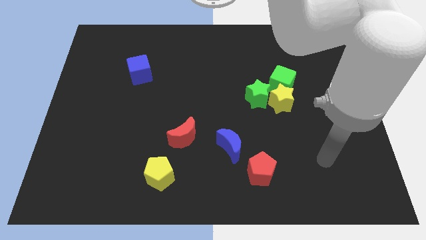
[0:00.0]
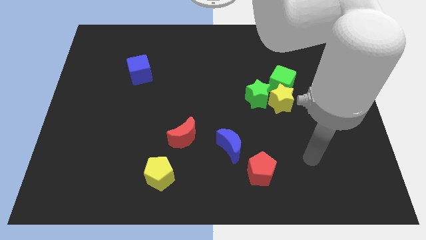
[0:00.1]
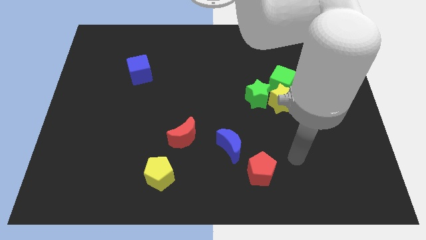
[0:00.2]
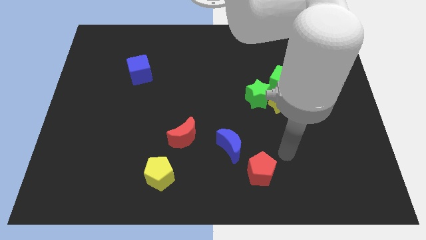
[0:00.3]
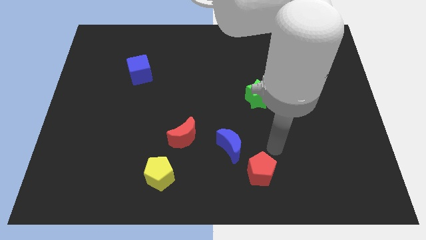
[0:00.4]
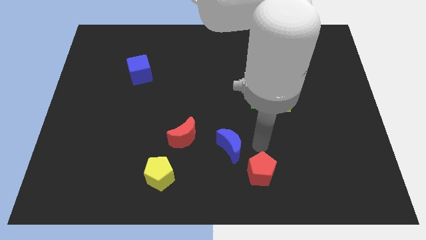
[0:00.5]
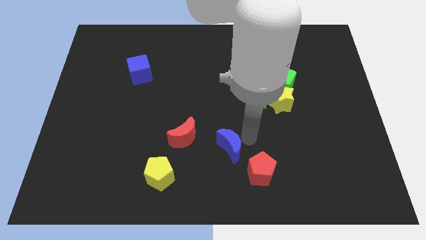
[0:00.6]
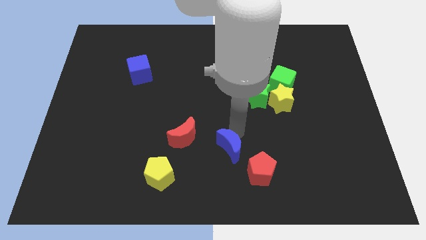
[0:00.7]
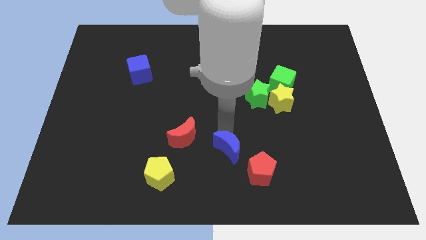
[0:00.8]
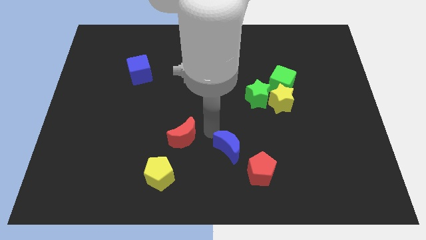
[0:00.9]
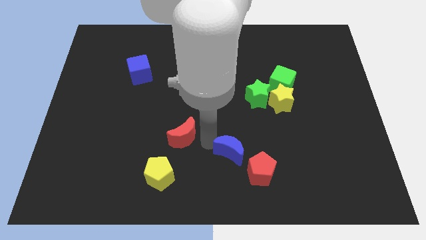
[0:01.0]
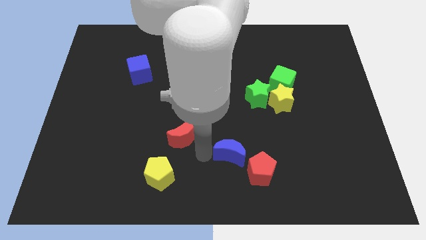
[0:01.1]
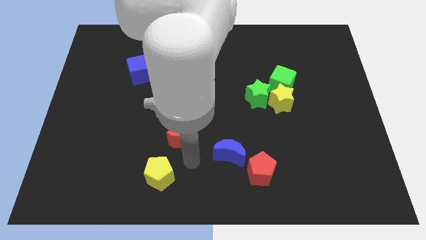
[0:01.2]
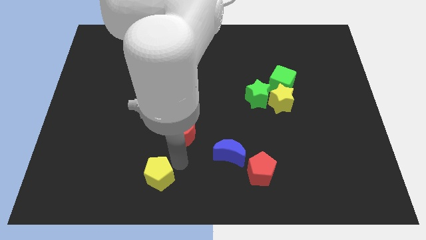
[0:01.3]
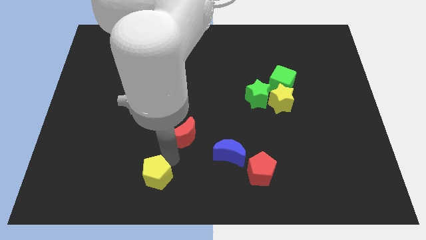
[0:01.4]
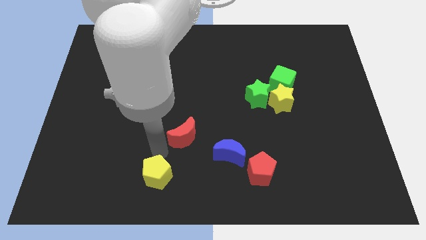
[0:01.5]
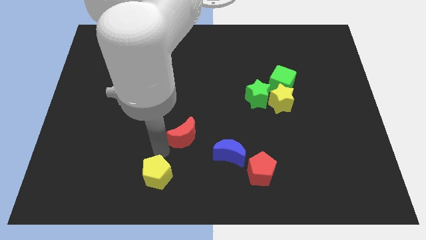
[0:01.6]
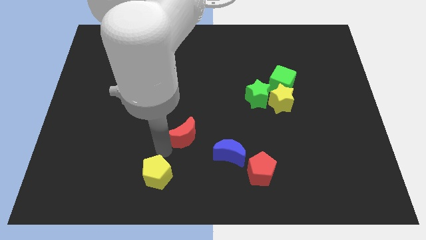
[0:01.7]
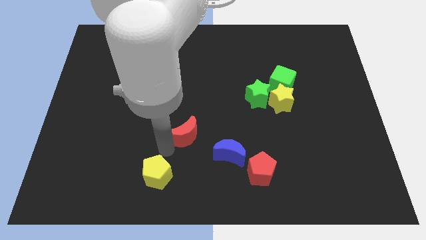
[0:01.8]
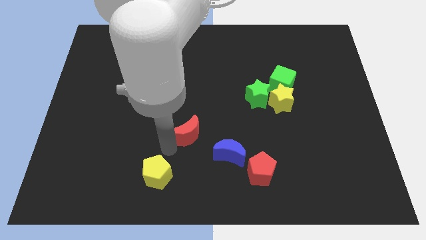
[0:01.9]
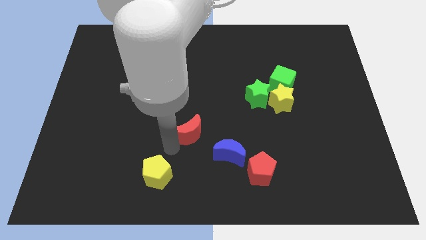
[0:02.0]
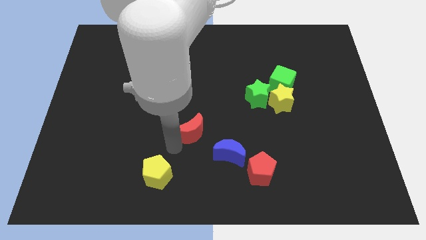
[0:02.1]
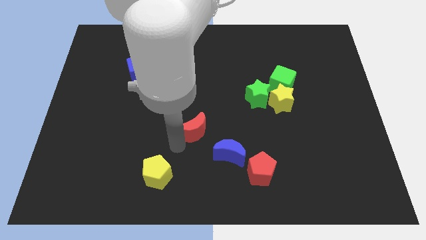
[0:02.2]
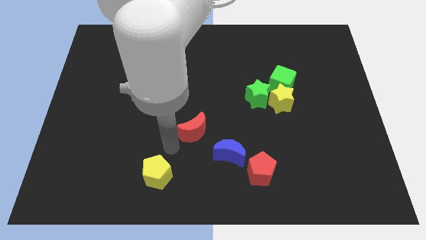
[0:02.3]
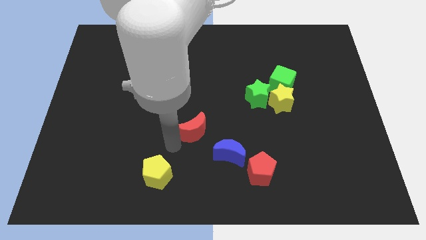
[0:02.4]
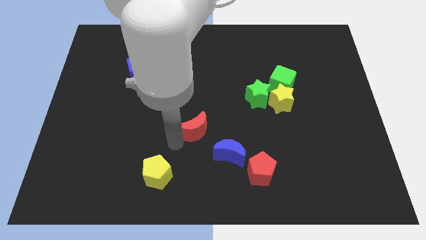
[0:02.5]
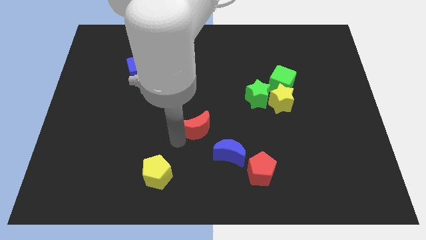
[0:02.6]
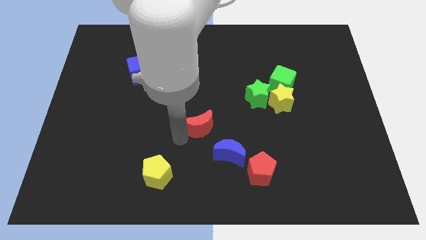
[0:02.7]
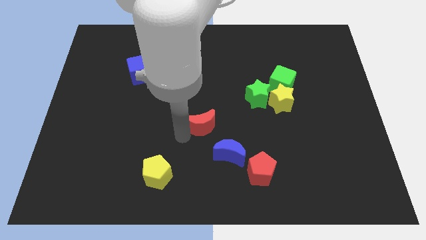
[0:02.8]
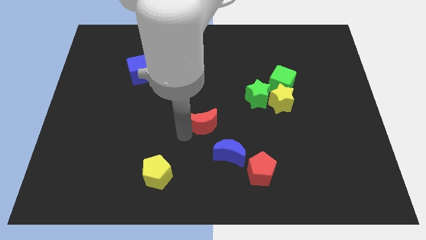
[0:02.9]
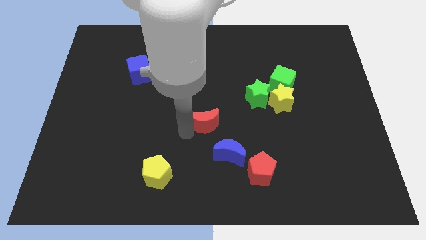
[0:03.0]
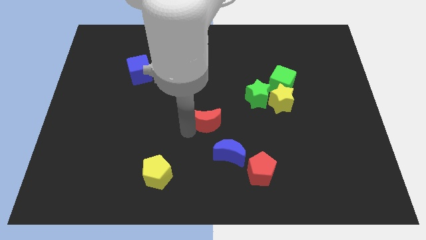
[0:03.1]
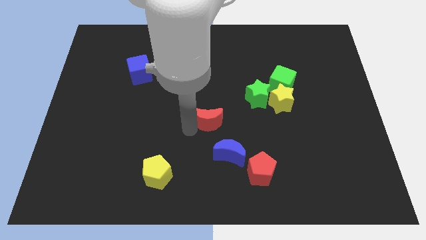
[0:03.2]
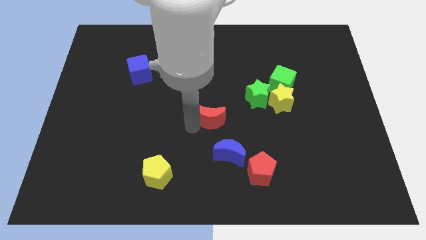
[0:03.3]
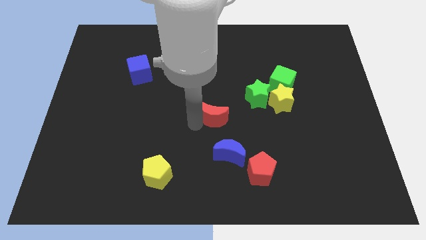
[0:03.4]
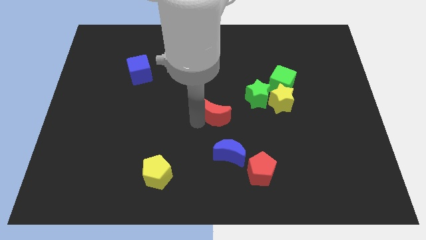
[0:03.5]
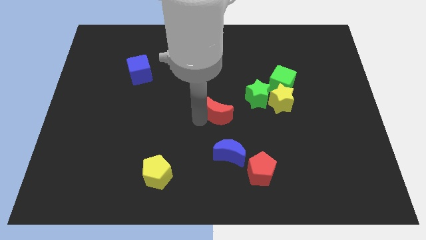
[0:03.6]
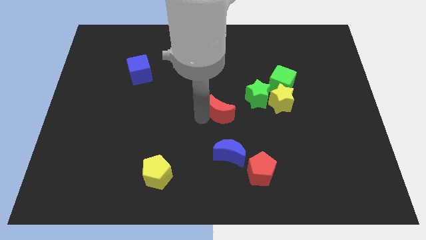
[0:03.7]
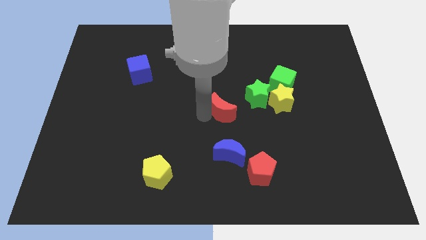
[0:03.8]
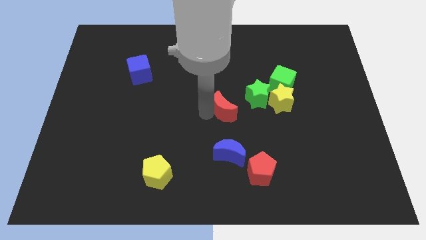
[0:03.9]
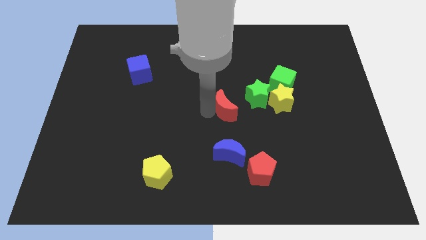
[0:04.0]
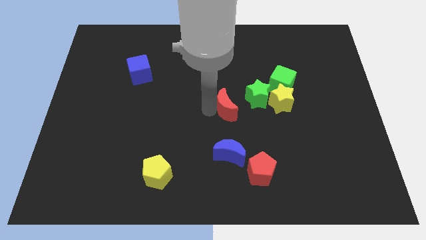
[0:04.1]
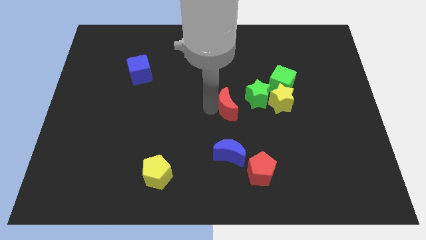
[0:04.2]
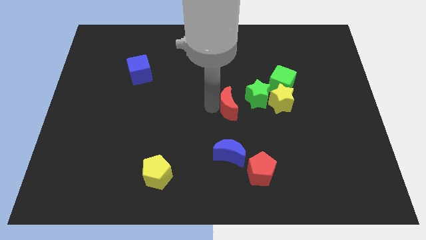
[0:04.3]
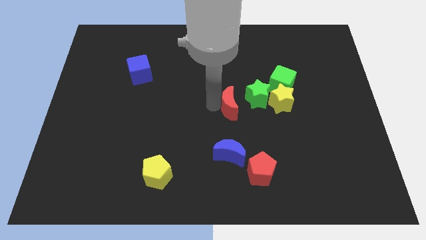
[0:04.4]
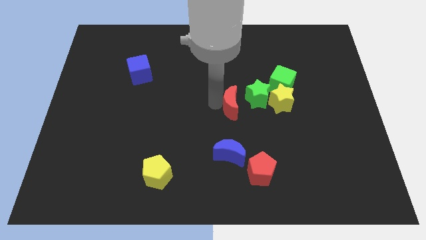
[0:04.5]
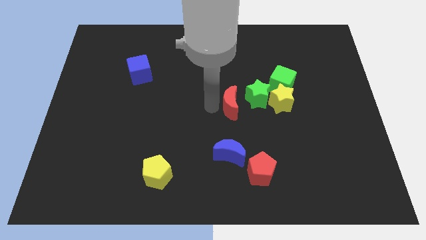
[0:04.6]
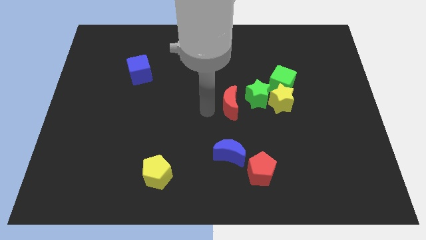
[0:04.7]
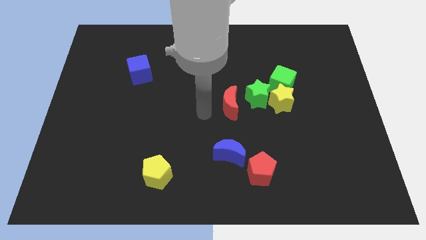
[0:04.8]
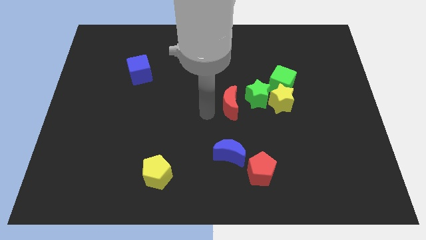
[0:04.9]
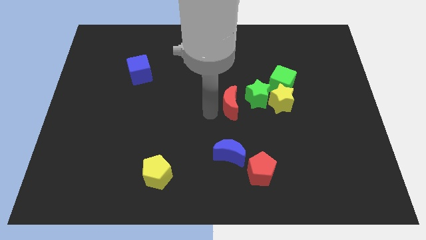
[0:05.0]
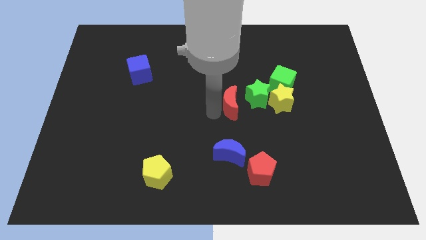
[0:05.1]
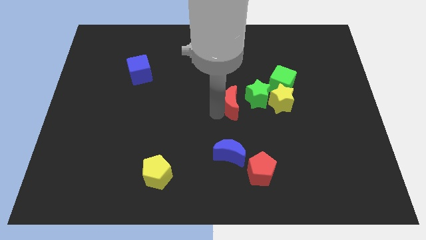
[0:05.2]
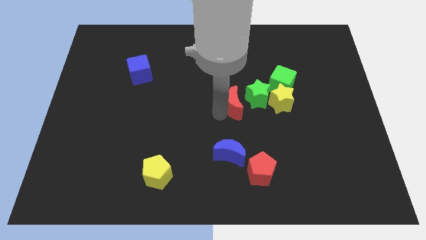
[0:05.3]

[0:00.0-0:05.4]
slide the red moon close to the green star

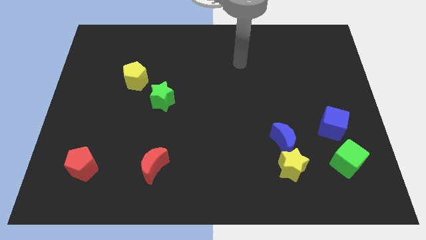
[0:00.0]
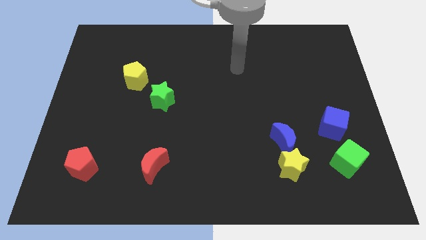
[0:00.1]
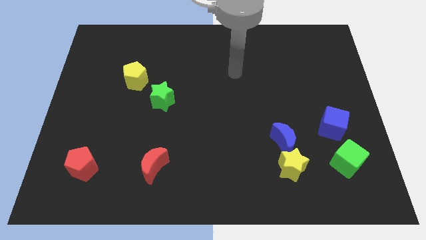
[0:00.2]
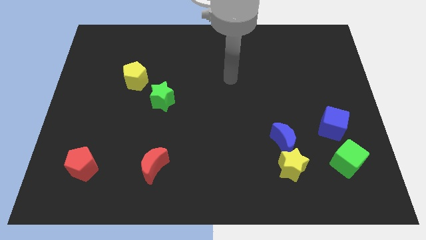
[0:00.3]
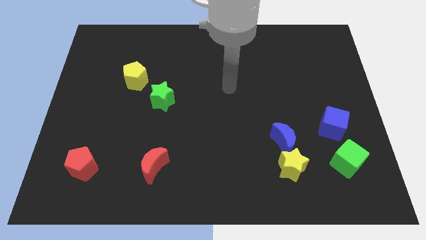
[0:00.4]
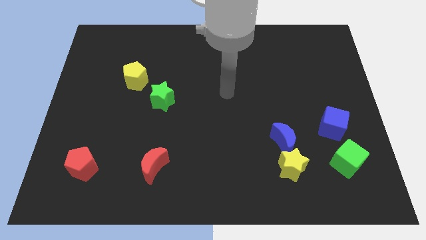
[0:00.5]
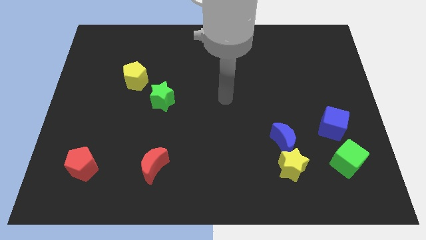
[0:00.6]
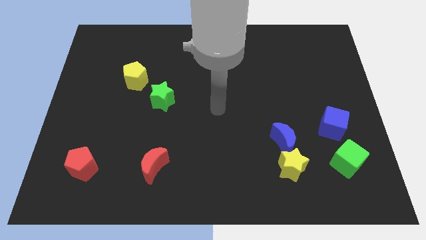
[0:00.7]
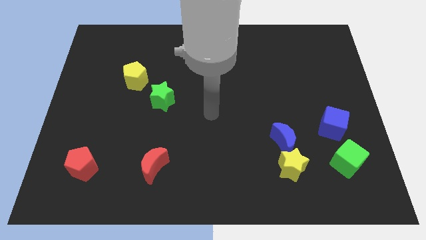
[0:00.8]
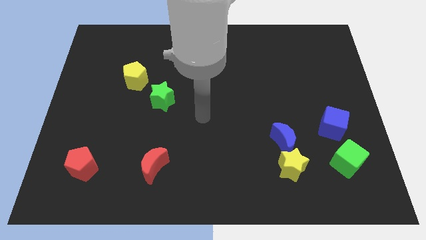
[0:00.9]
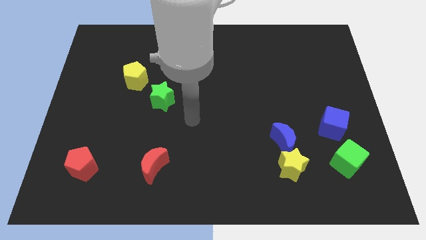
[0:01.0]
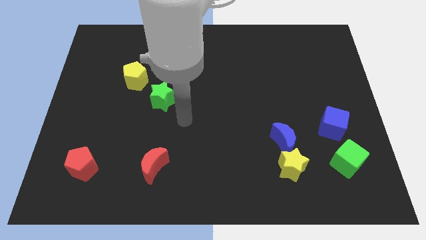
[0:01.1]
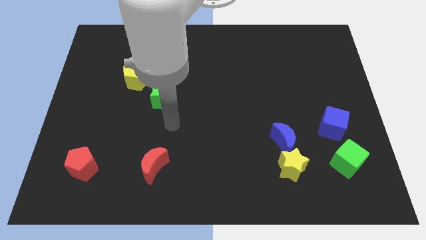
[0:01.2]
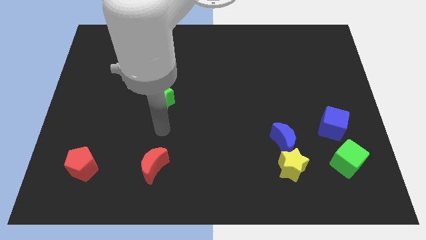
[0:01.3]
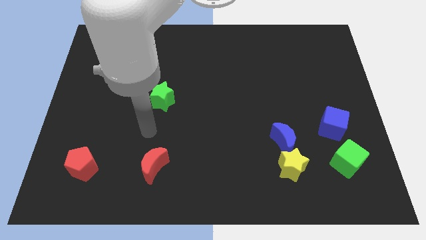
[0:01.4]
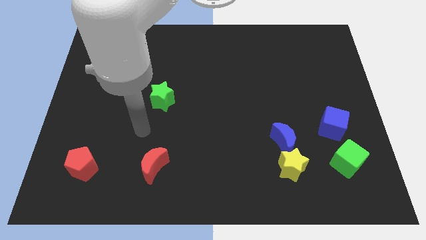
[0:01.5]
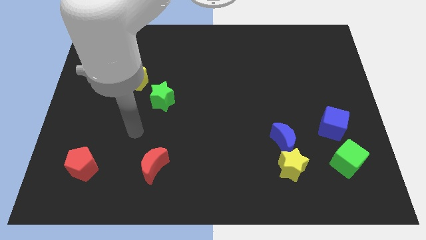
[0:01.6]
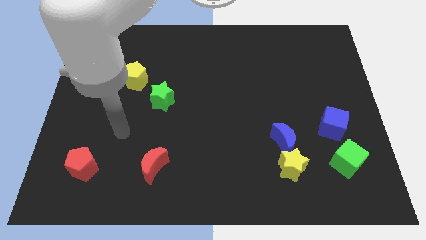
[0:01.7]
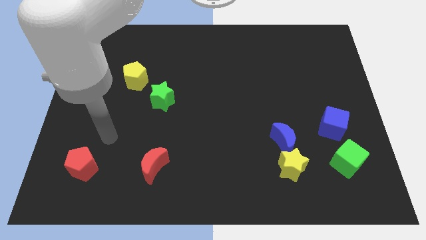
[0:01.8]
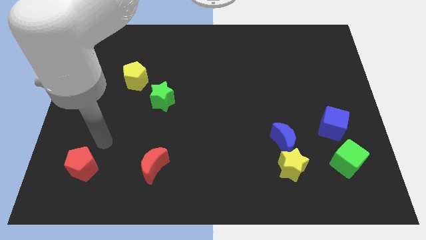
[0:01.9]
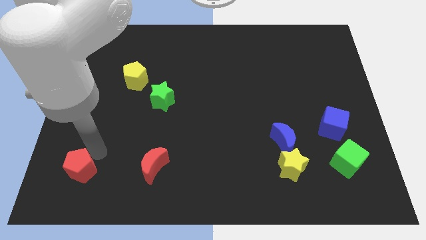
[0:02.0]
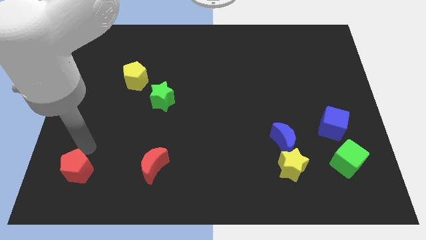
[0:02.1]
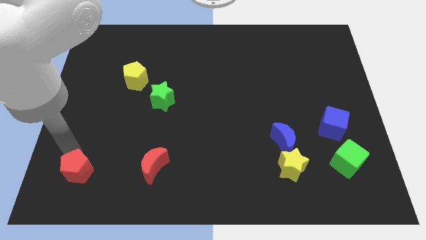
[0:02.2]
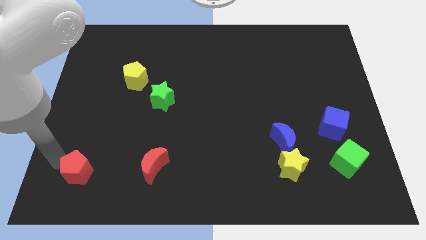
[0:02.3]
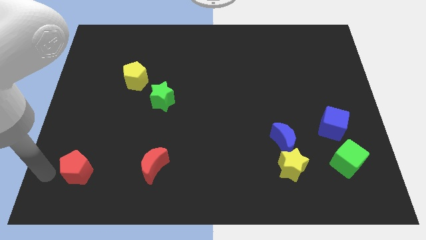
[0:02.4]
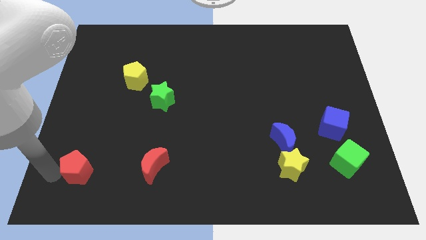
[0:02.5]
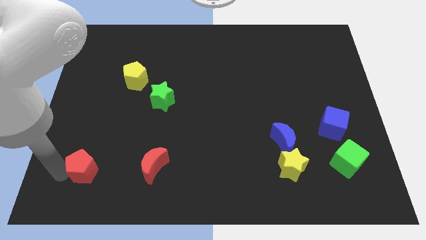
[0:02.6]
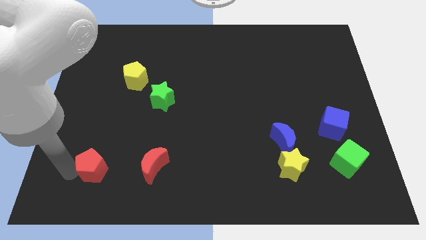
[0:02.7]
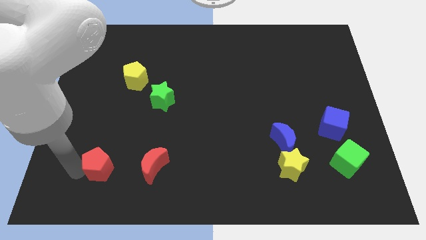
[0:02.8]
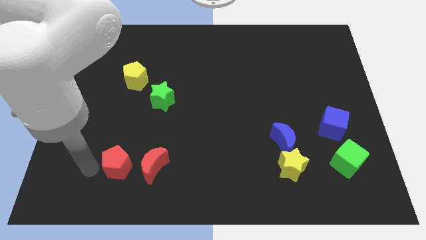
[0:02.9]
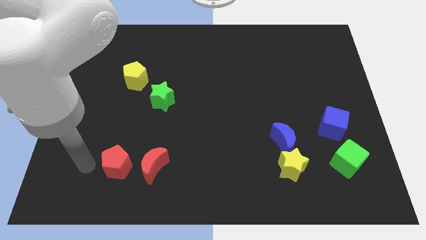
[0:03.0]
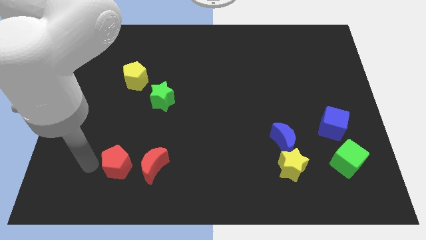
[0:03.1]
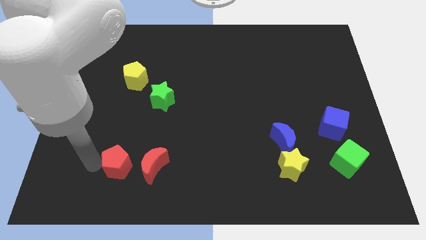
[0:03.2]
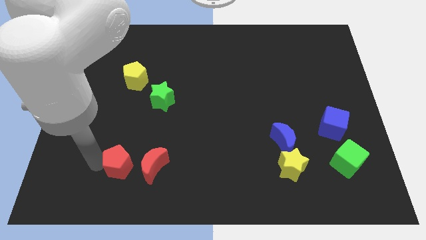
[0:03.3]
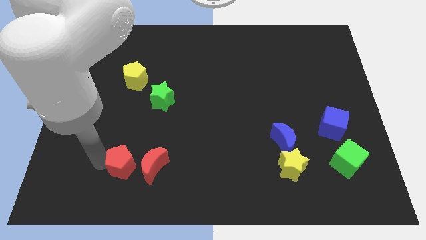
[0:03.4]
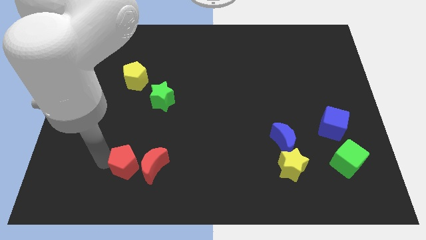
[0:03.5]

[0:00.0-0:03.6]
slide the red pentagon towards the red moon
